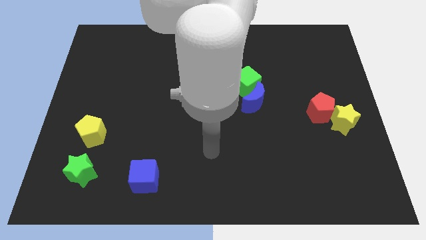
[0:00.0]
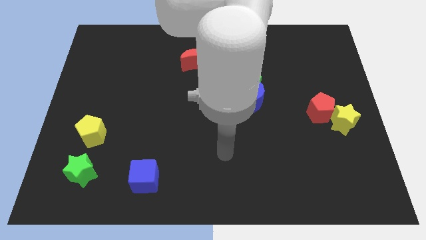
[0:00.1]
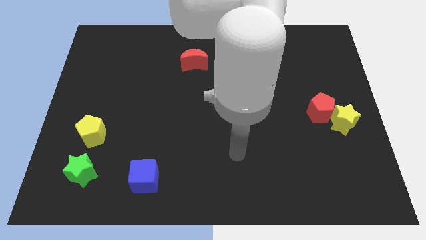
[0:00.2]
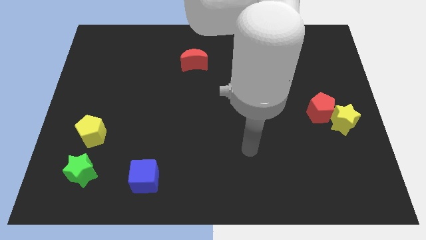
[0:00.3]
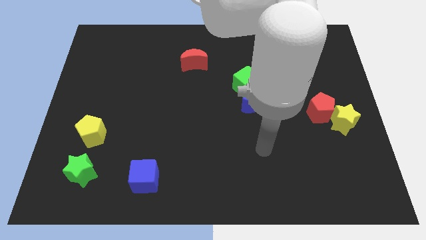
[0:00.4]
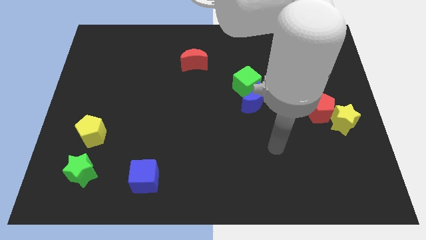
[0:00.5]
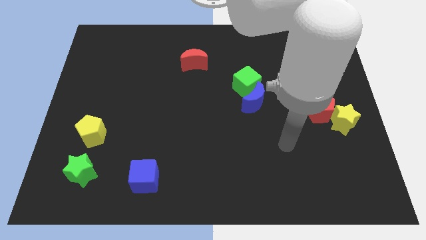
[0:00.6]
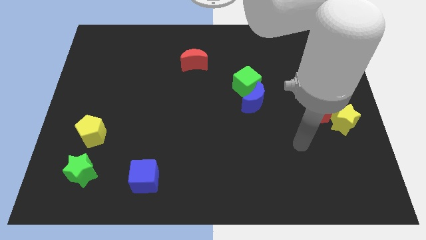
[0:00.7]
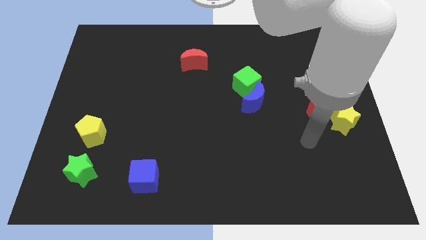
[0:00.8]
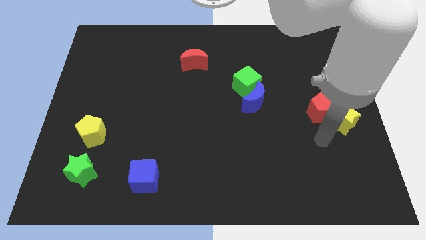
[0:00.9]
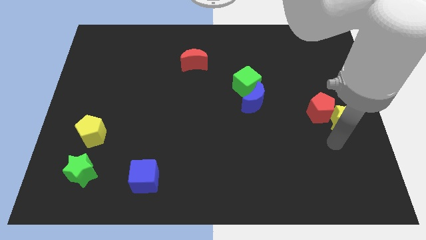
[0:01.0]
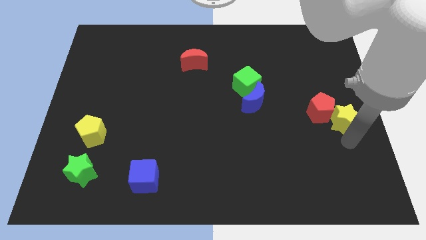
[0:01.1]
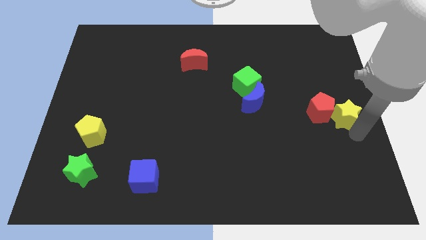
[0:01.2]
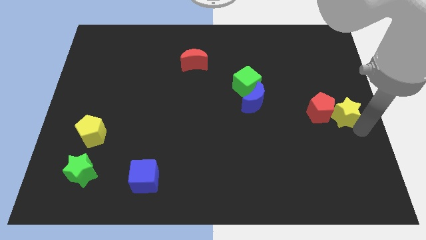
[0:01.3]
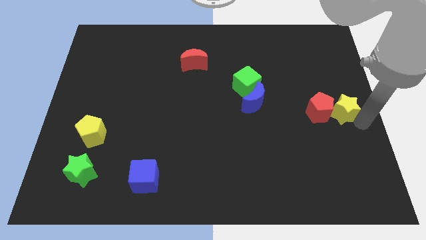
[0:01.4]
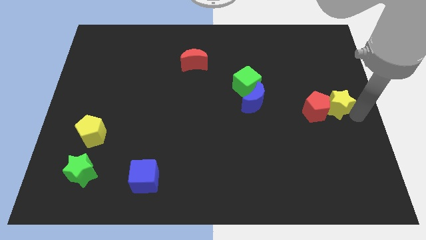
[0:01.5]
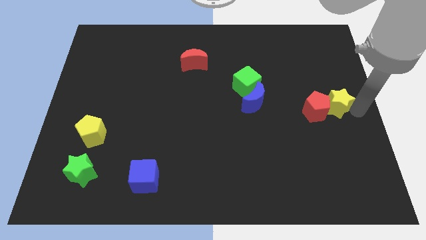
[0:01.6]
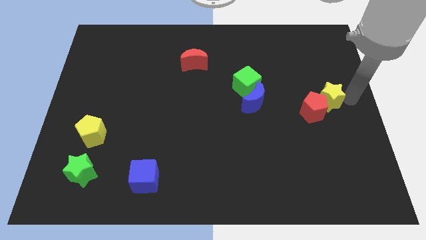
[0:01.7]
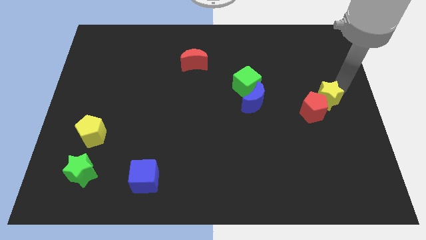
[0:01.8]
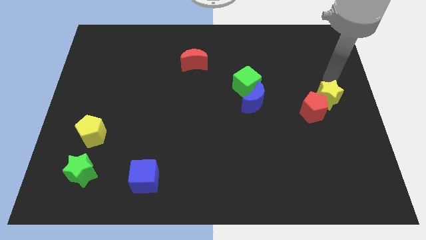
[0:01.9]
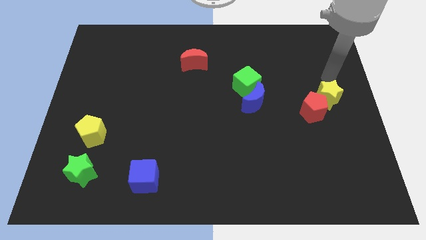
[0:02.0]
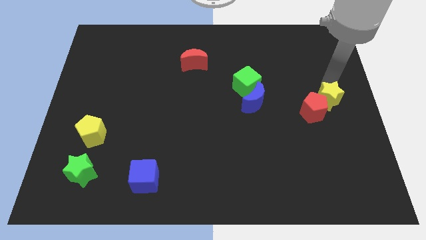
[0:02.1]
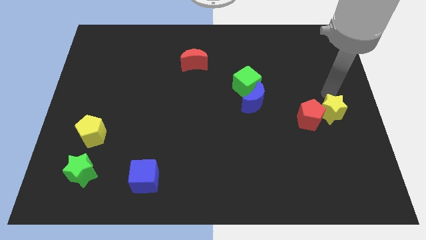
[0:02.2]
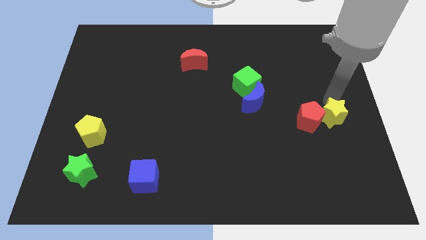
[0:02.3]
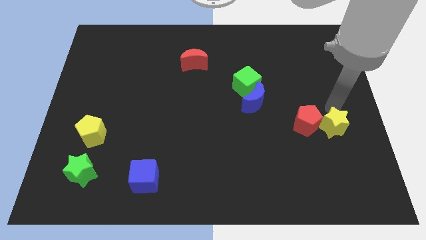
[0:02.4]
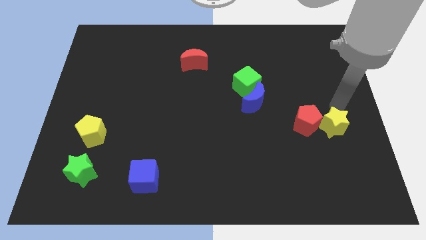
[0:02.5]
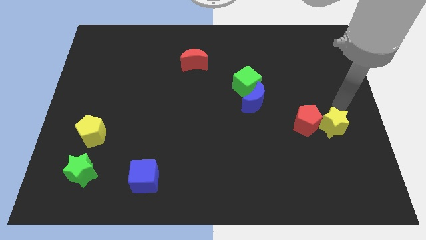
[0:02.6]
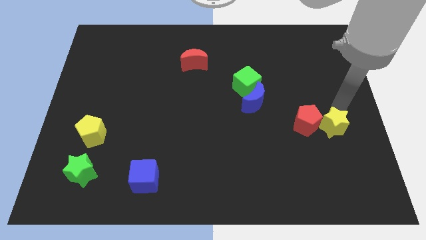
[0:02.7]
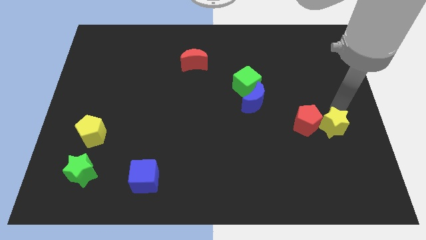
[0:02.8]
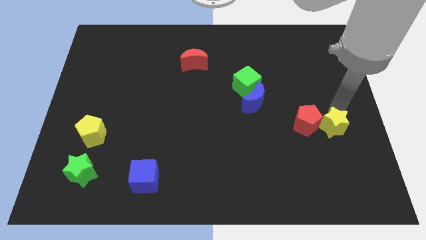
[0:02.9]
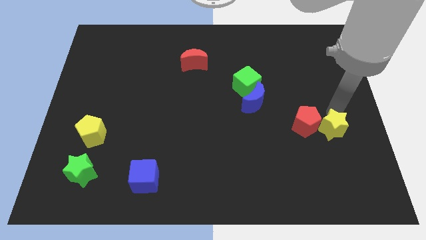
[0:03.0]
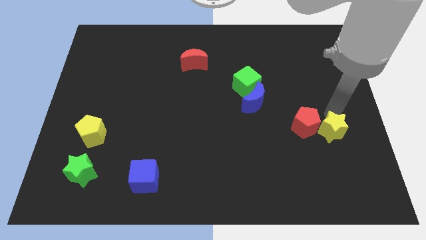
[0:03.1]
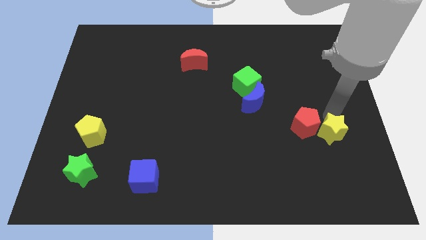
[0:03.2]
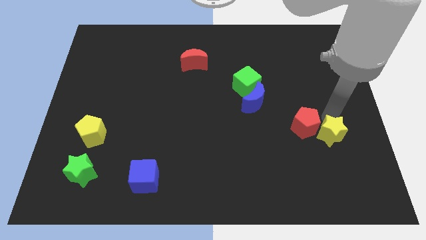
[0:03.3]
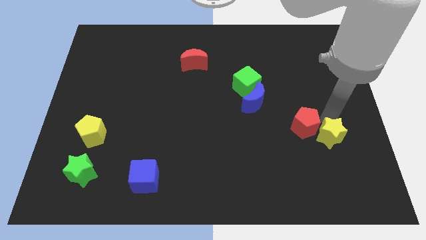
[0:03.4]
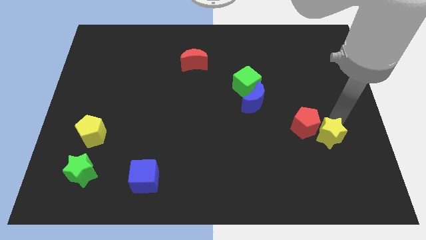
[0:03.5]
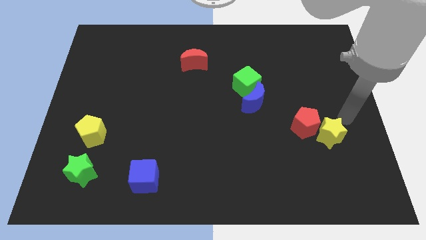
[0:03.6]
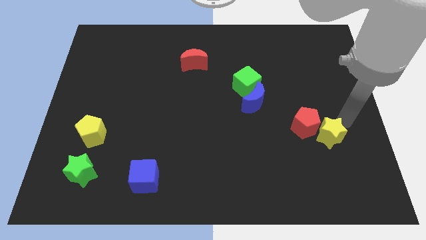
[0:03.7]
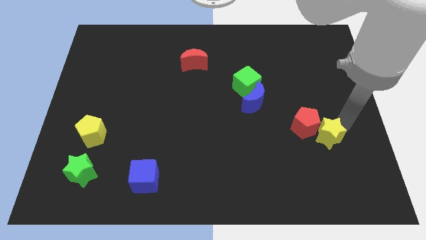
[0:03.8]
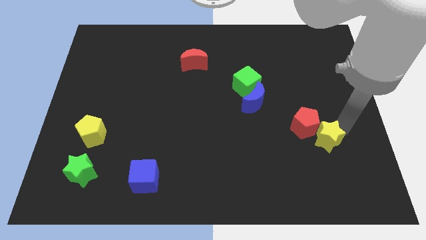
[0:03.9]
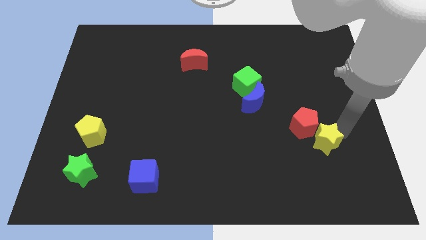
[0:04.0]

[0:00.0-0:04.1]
push the yellow star down and left a bit

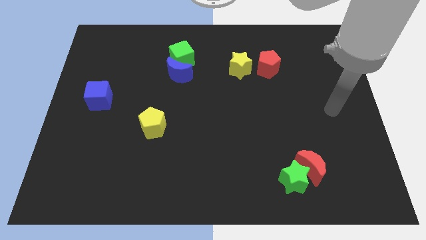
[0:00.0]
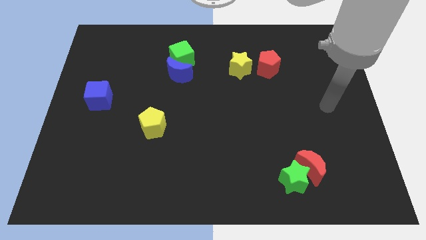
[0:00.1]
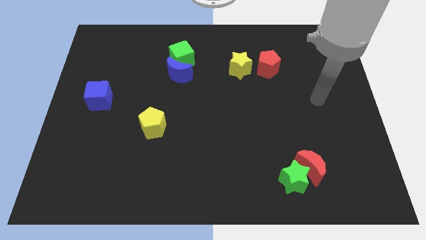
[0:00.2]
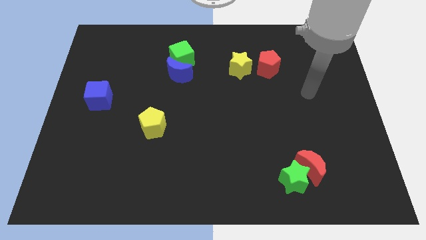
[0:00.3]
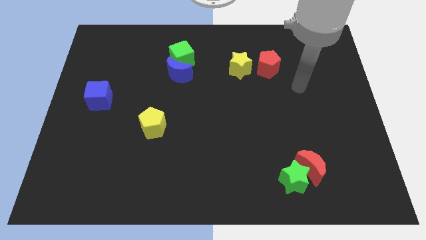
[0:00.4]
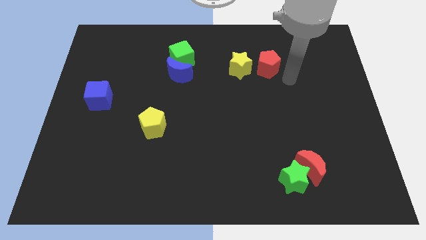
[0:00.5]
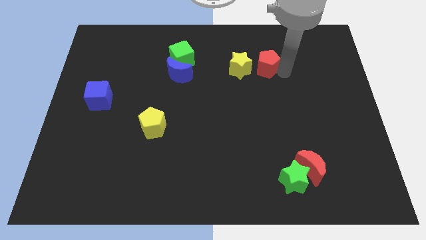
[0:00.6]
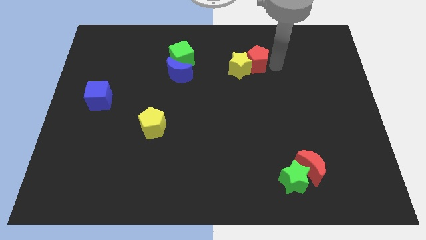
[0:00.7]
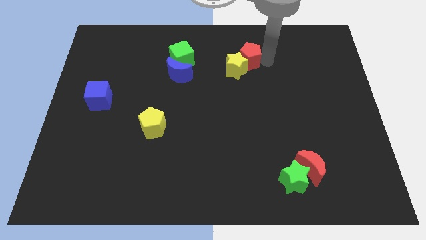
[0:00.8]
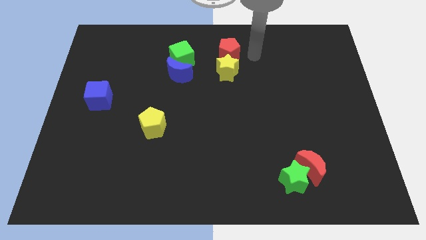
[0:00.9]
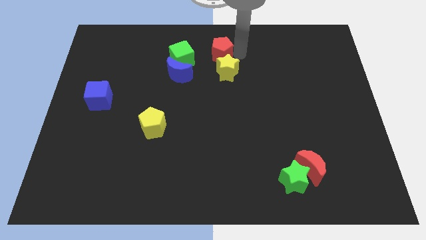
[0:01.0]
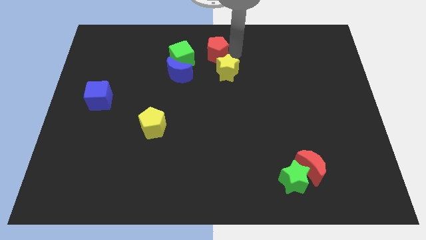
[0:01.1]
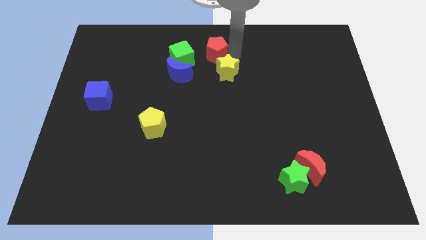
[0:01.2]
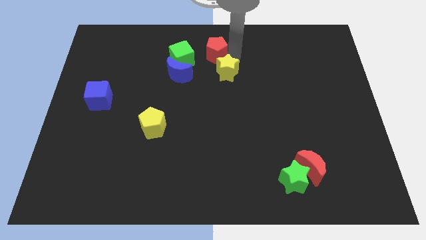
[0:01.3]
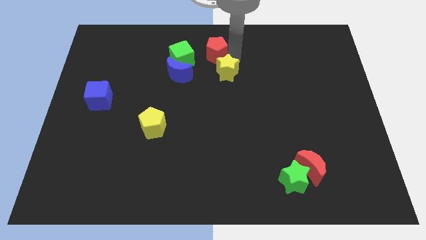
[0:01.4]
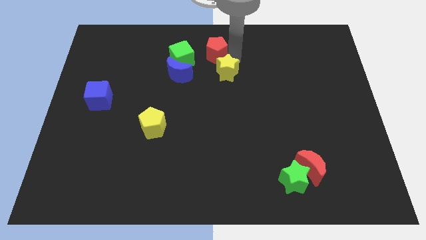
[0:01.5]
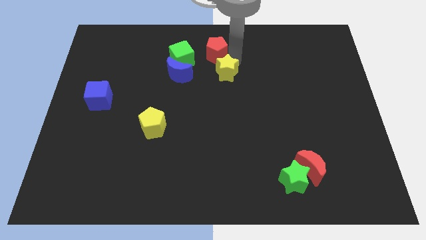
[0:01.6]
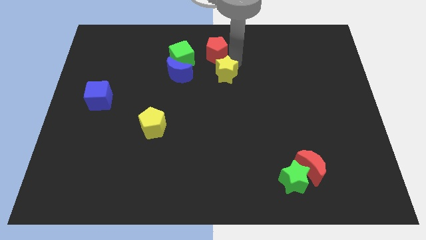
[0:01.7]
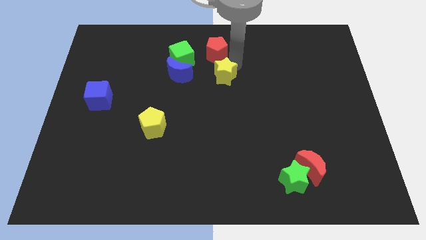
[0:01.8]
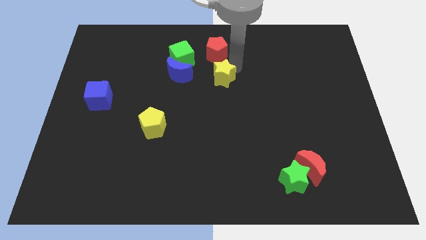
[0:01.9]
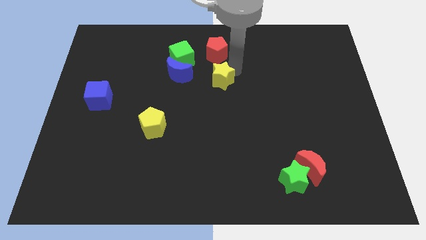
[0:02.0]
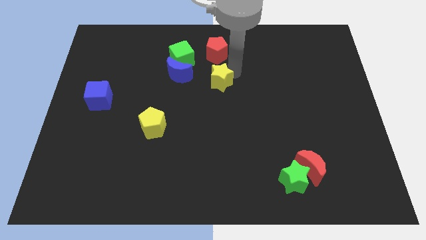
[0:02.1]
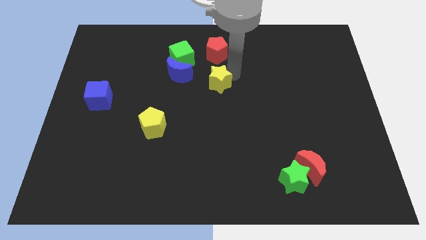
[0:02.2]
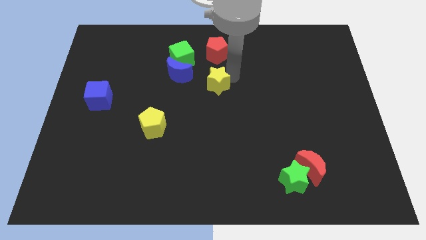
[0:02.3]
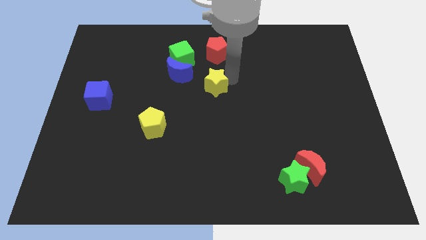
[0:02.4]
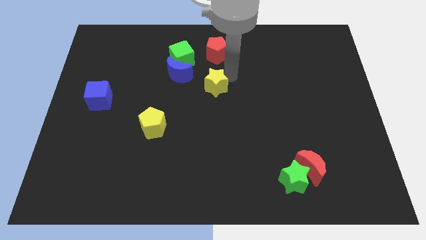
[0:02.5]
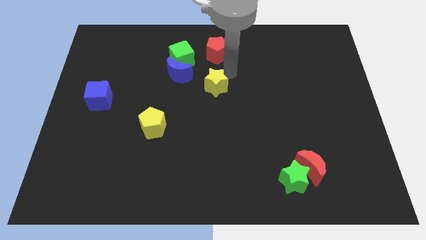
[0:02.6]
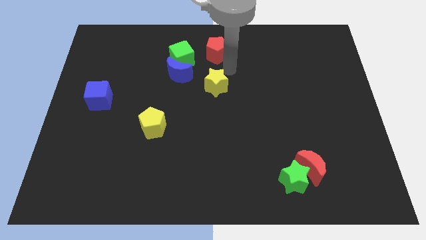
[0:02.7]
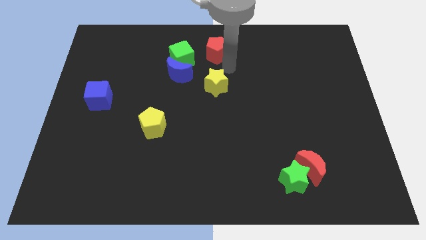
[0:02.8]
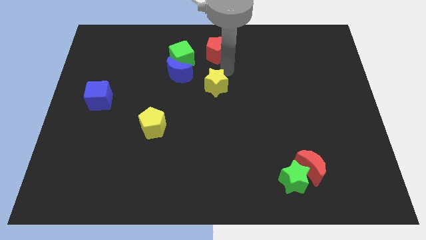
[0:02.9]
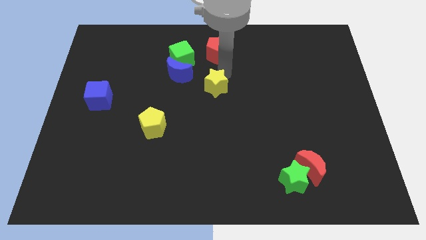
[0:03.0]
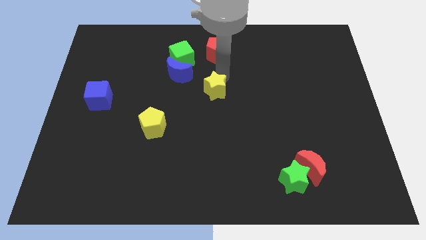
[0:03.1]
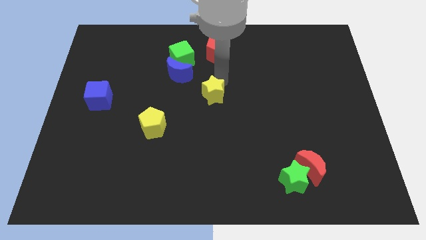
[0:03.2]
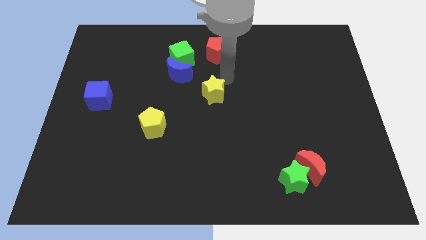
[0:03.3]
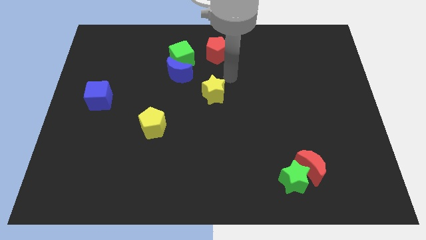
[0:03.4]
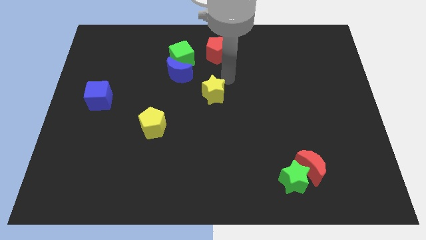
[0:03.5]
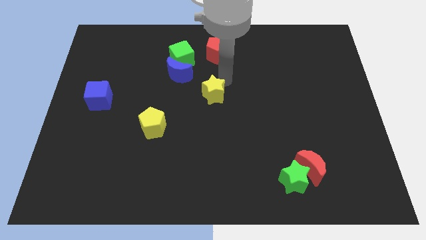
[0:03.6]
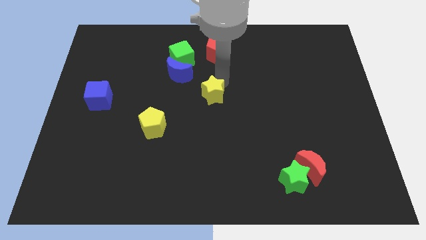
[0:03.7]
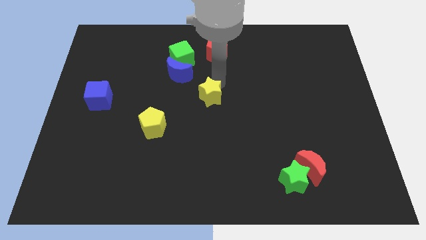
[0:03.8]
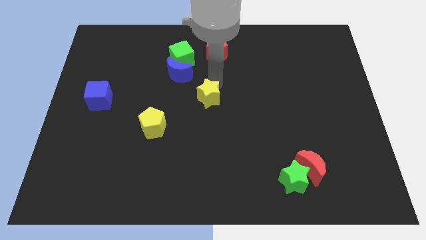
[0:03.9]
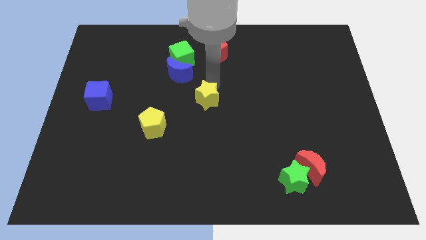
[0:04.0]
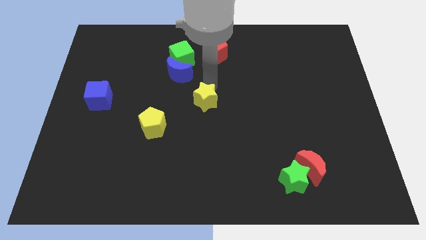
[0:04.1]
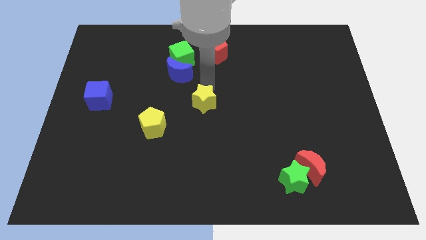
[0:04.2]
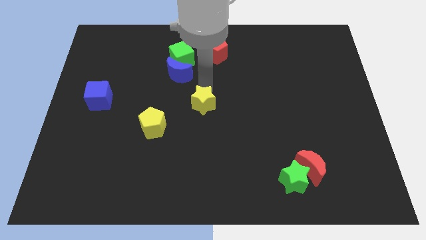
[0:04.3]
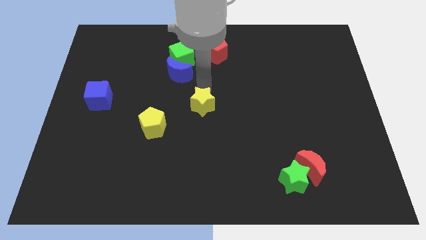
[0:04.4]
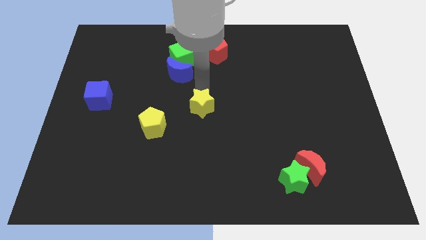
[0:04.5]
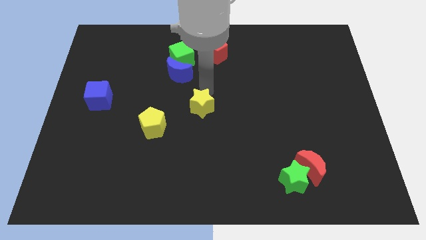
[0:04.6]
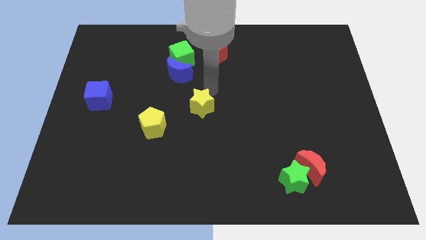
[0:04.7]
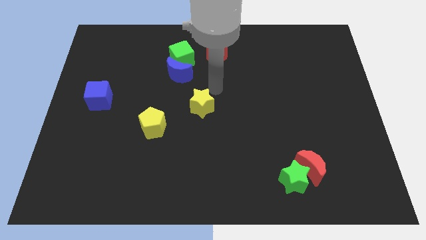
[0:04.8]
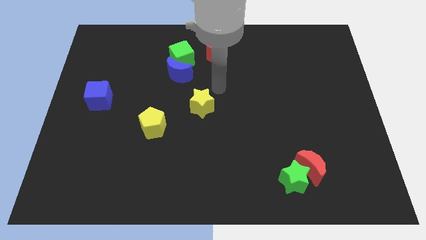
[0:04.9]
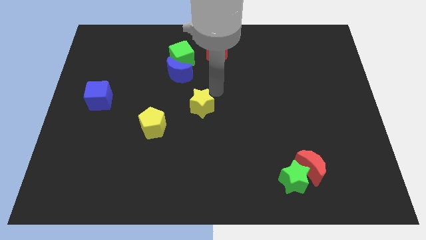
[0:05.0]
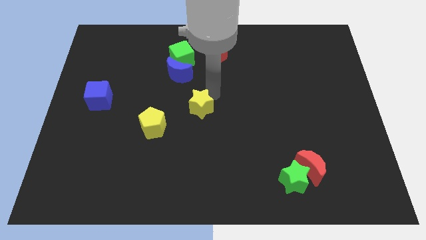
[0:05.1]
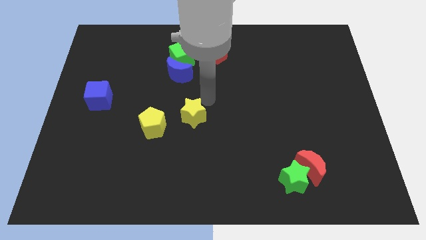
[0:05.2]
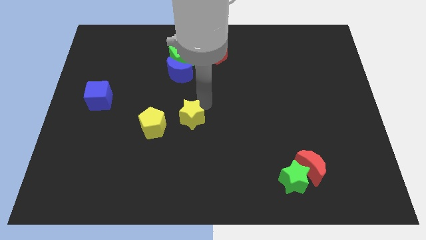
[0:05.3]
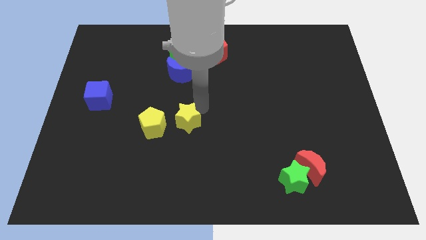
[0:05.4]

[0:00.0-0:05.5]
push the yellow star downwards and then left
